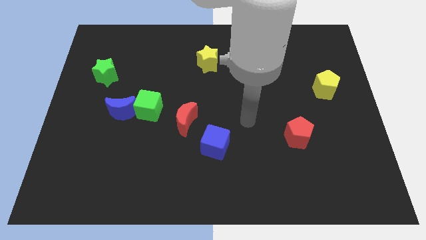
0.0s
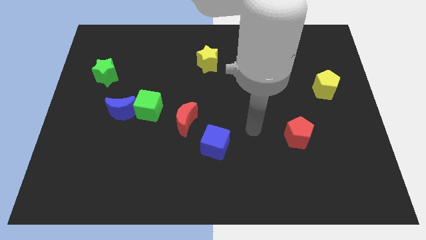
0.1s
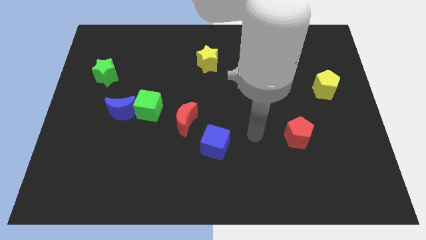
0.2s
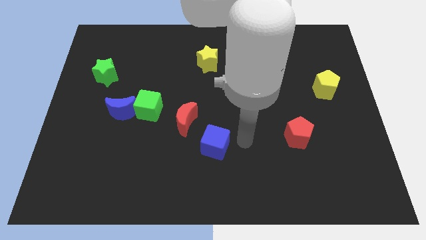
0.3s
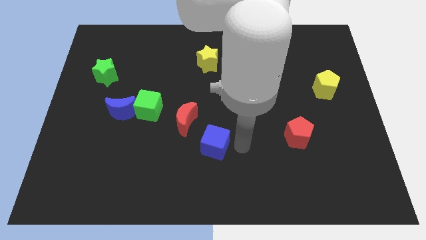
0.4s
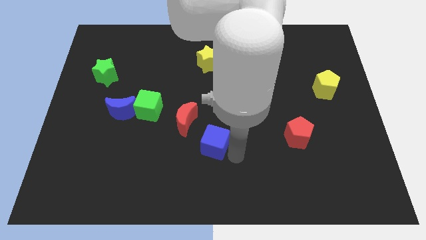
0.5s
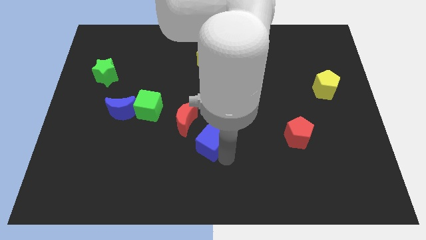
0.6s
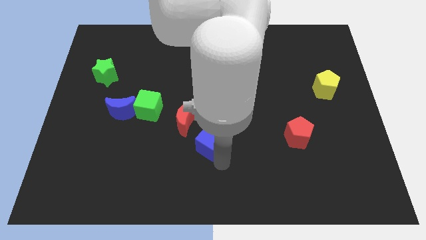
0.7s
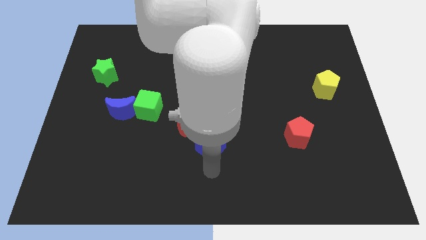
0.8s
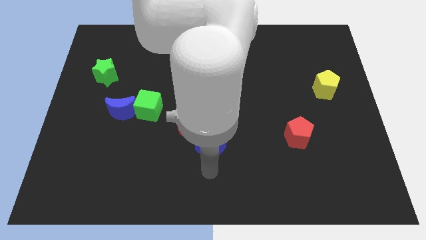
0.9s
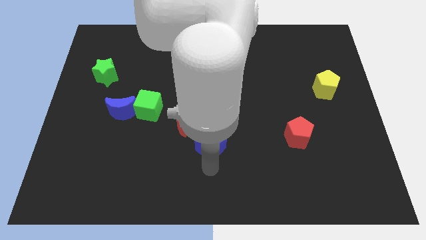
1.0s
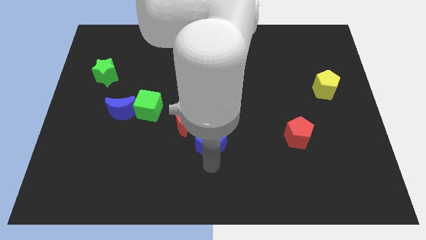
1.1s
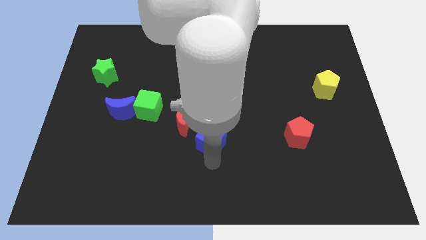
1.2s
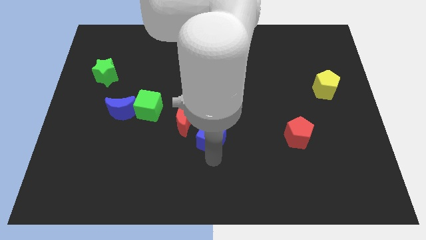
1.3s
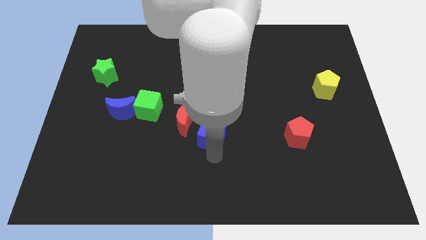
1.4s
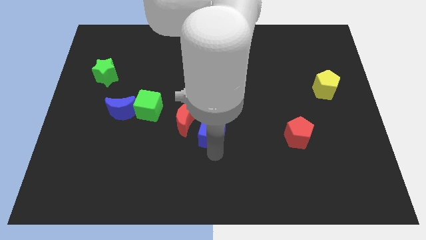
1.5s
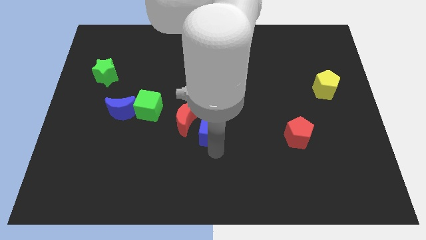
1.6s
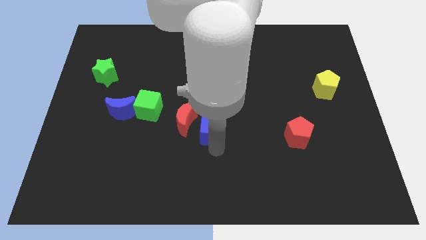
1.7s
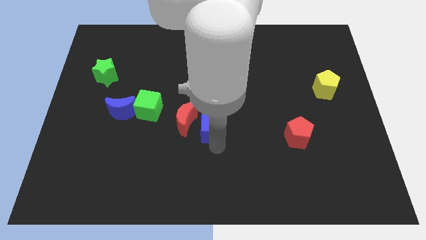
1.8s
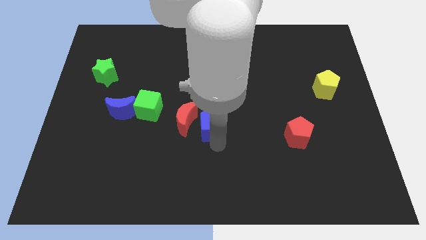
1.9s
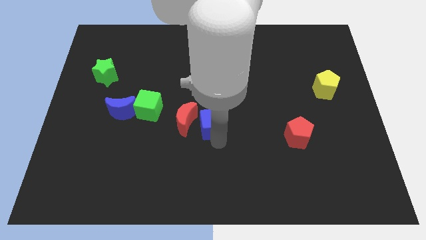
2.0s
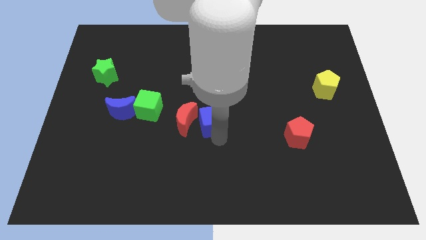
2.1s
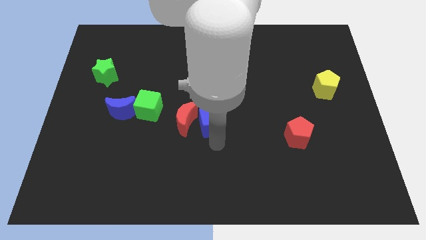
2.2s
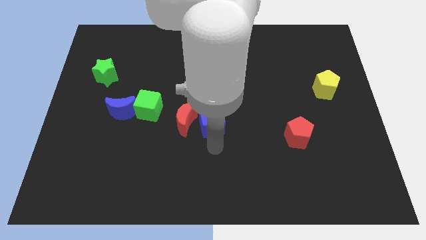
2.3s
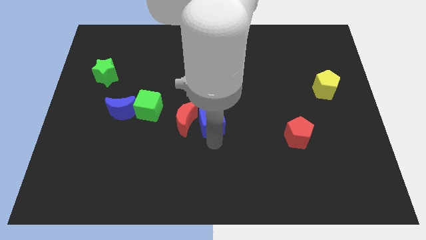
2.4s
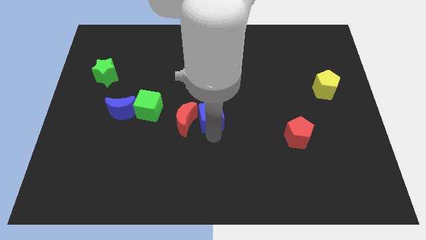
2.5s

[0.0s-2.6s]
move the blue cube a bit up

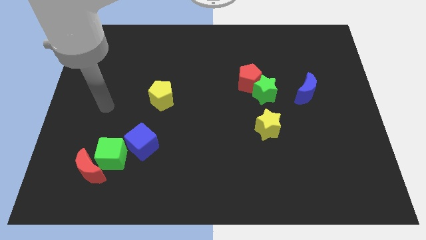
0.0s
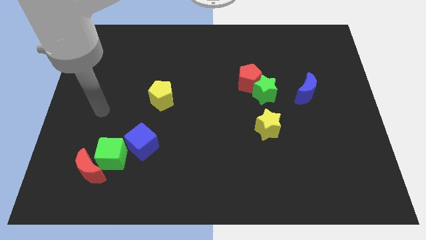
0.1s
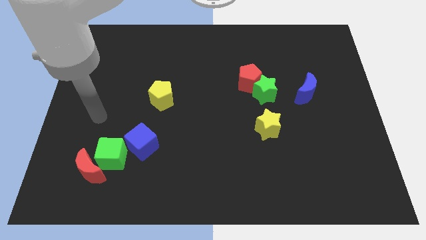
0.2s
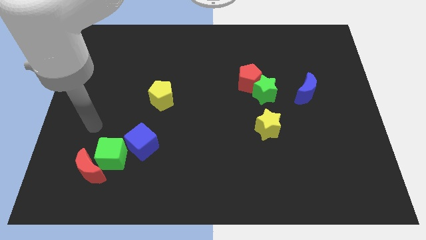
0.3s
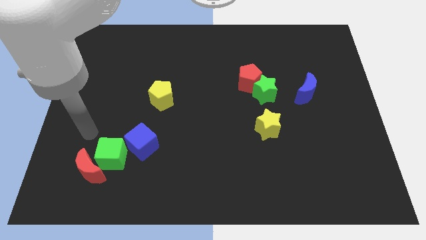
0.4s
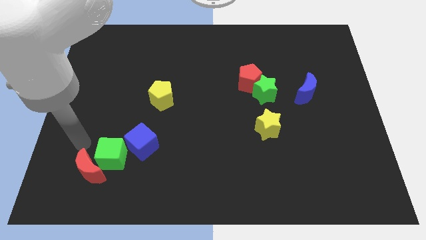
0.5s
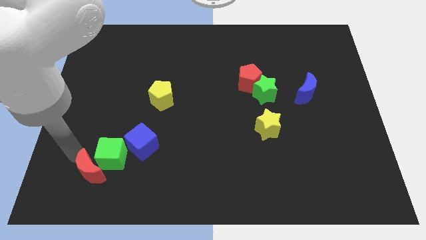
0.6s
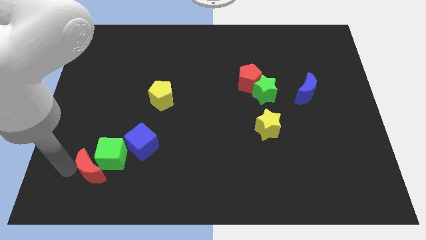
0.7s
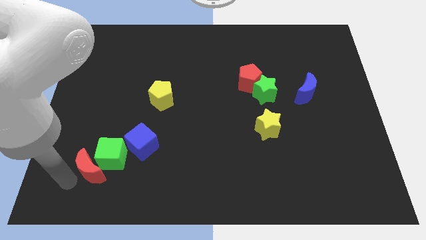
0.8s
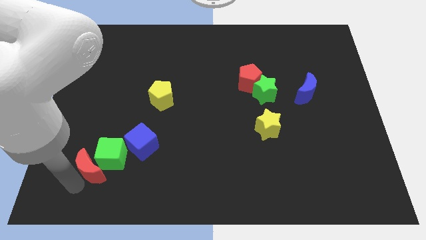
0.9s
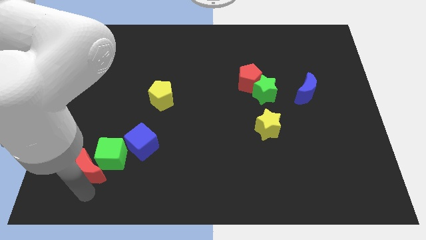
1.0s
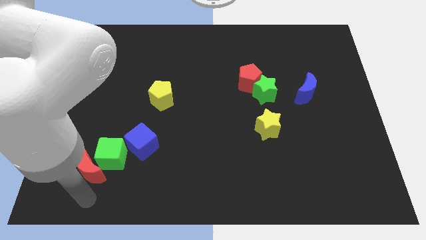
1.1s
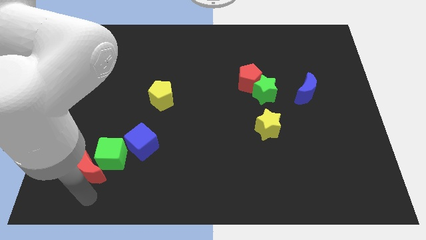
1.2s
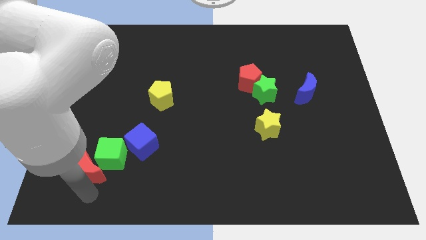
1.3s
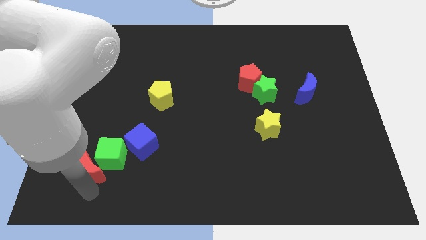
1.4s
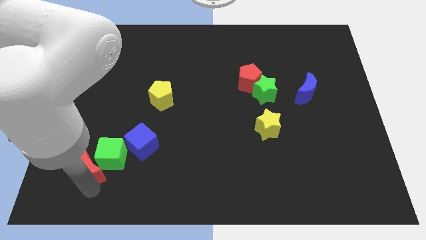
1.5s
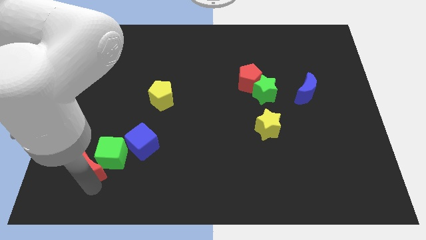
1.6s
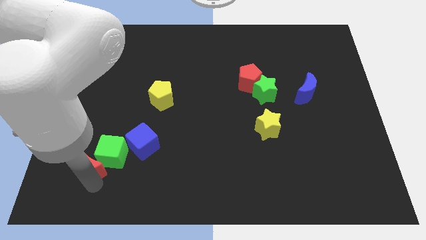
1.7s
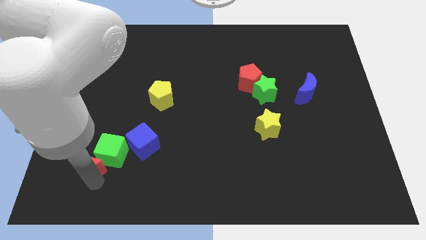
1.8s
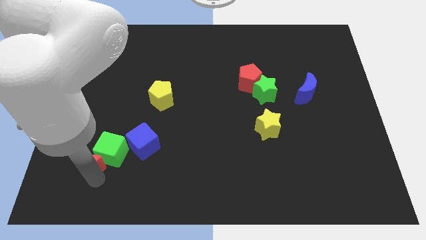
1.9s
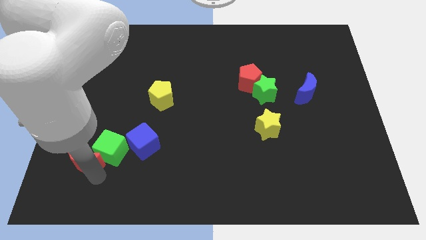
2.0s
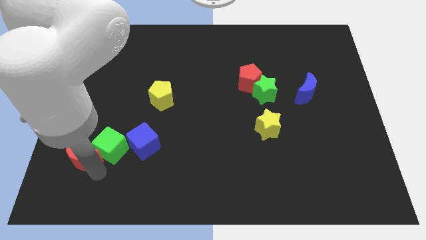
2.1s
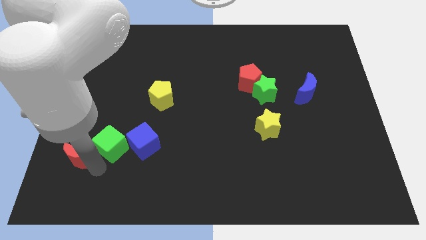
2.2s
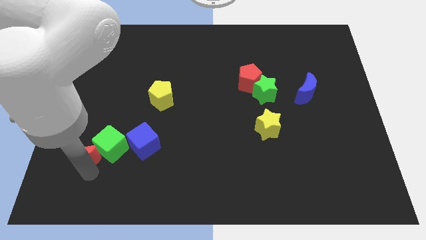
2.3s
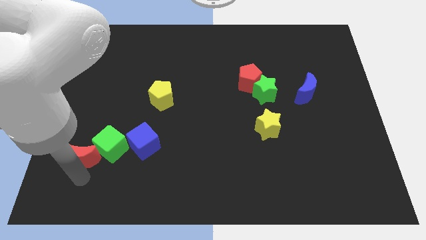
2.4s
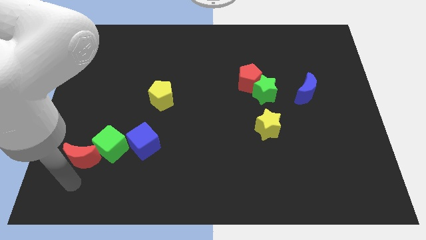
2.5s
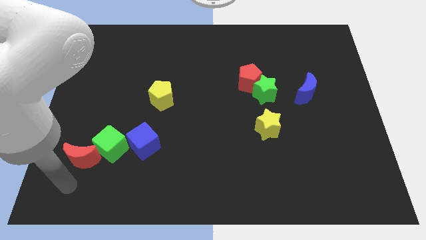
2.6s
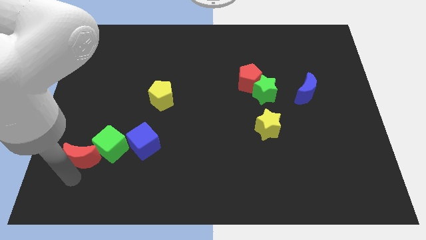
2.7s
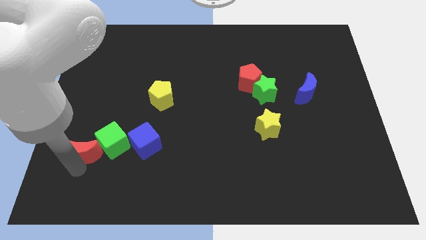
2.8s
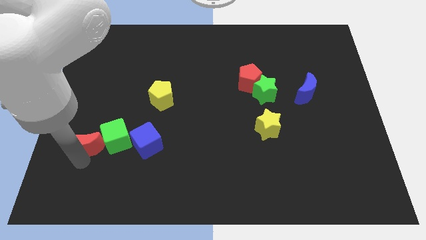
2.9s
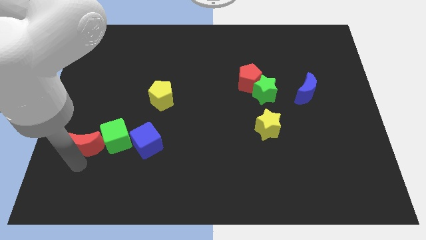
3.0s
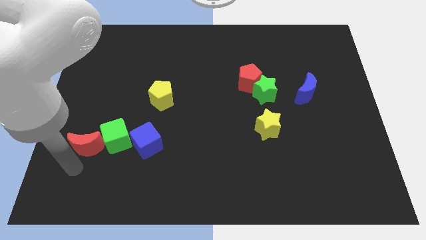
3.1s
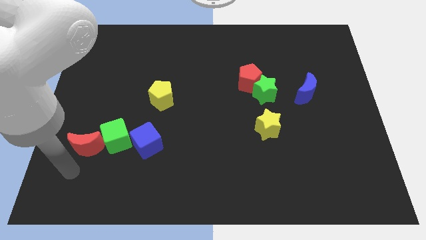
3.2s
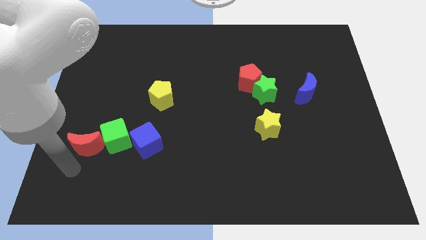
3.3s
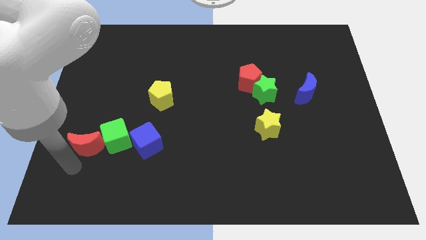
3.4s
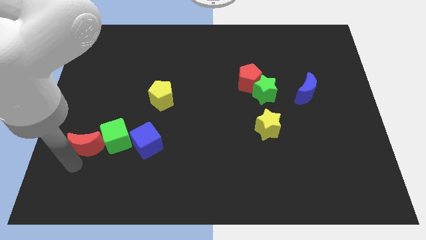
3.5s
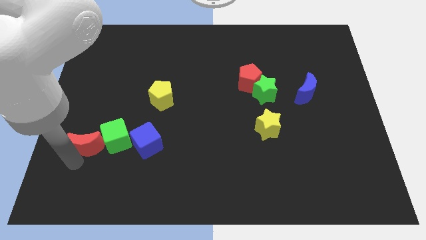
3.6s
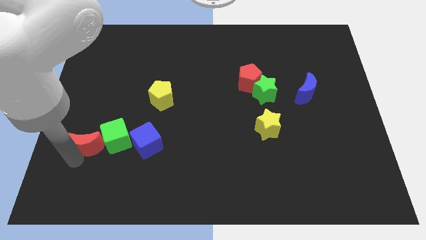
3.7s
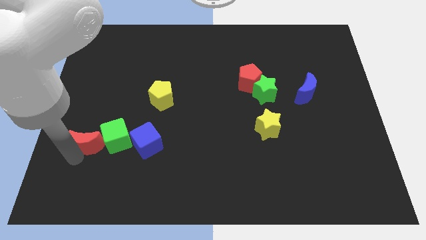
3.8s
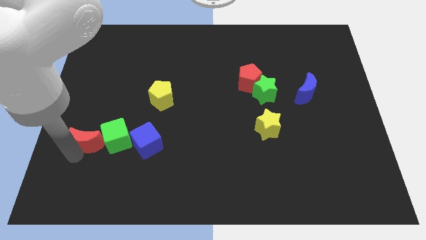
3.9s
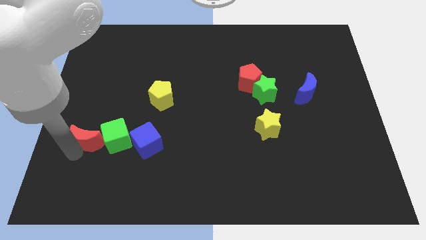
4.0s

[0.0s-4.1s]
slide the red moon up a little

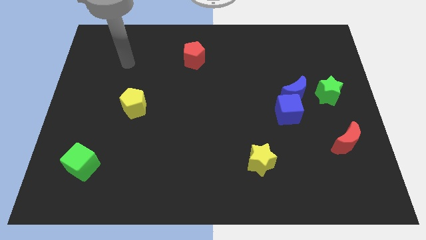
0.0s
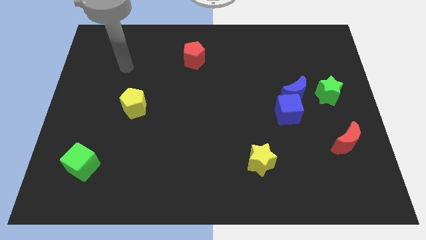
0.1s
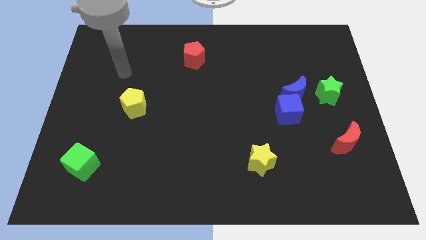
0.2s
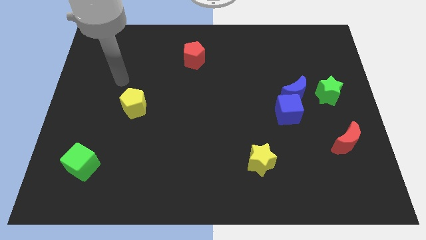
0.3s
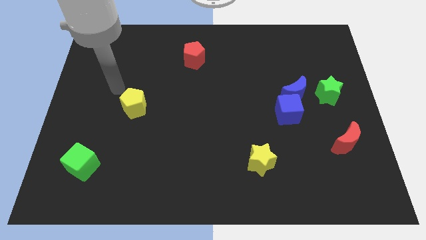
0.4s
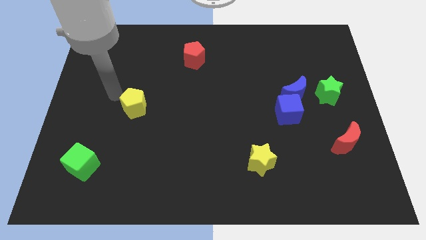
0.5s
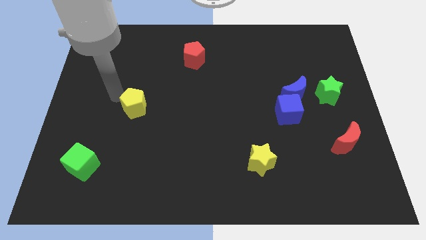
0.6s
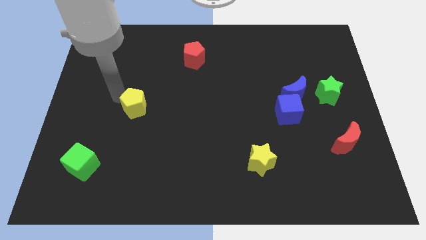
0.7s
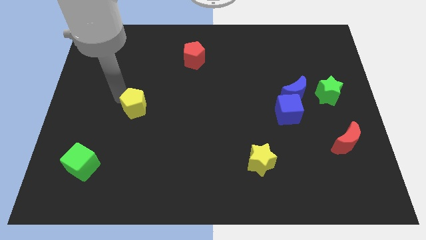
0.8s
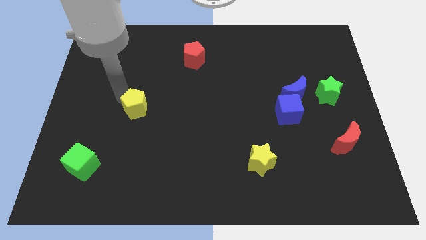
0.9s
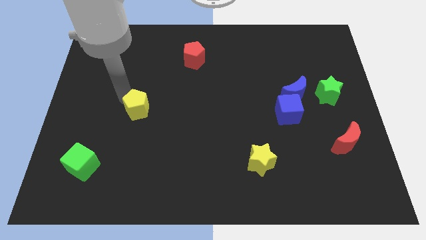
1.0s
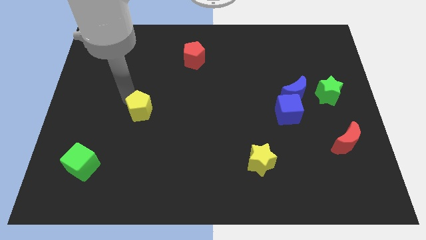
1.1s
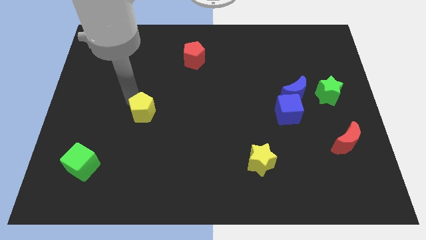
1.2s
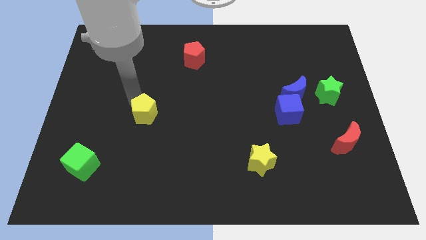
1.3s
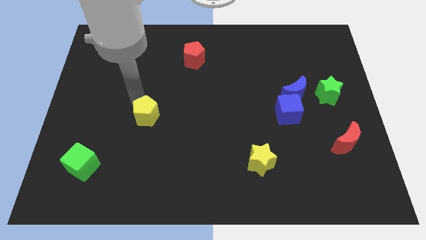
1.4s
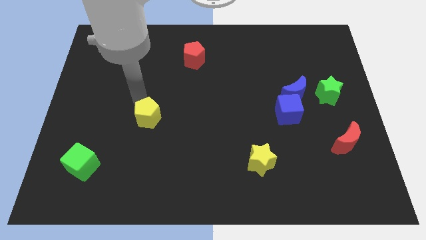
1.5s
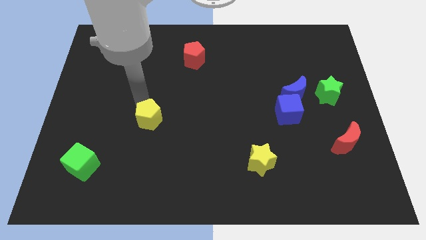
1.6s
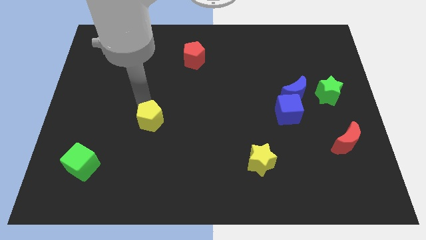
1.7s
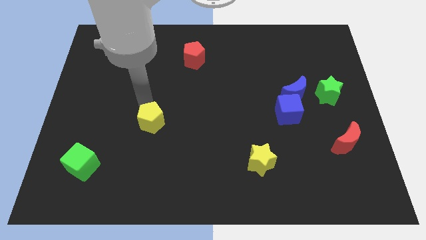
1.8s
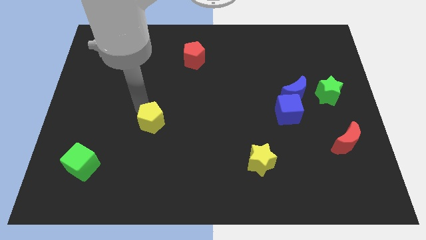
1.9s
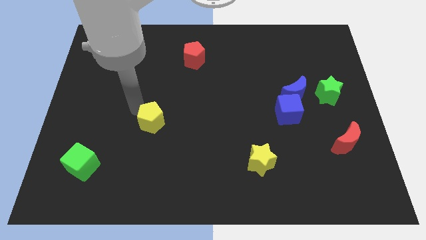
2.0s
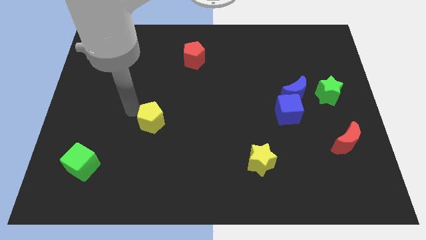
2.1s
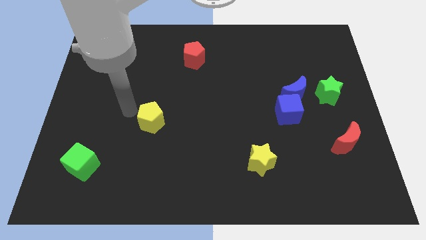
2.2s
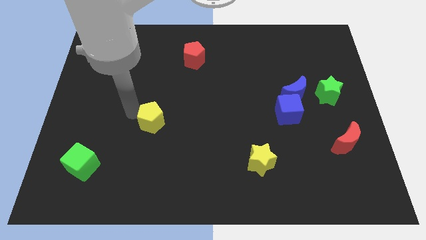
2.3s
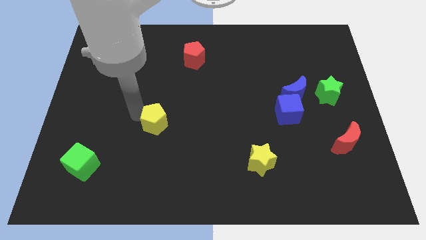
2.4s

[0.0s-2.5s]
slightly push the yellow pentagon down and right diagonally
